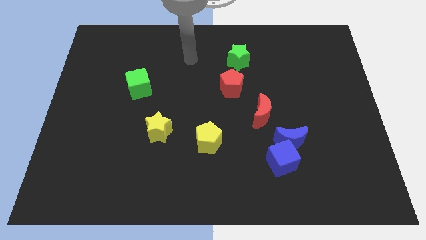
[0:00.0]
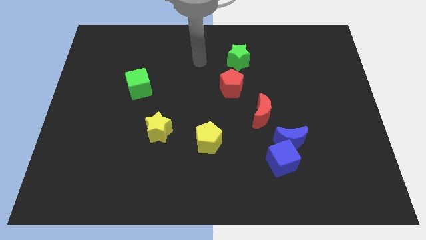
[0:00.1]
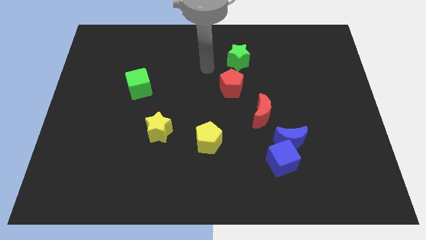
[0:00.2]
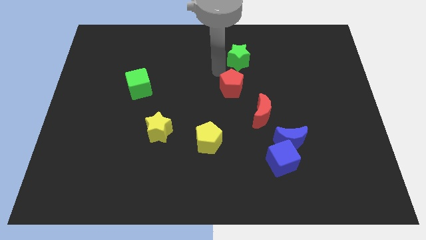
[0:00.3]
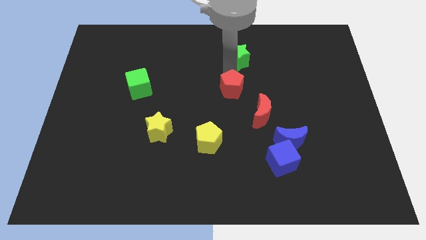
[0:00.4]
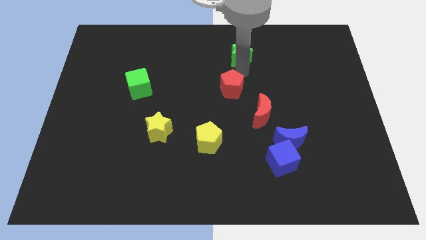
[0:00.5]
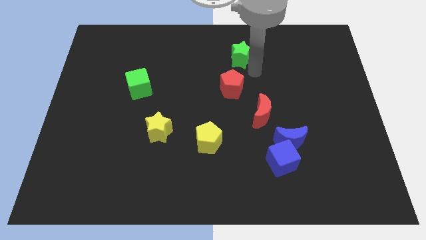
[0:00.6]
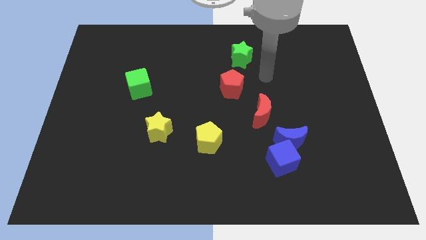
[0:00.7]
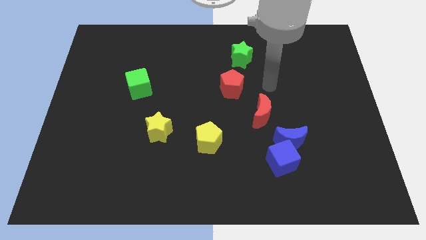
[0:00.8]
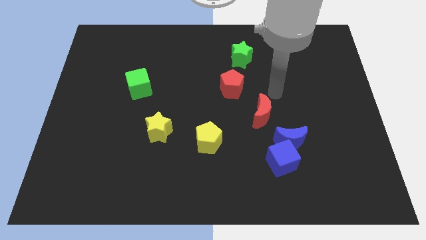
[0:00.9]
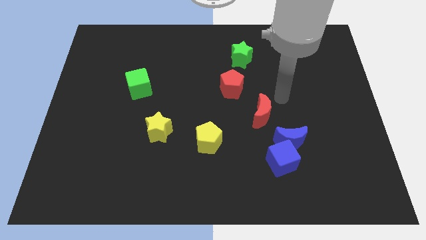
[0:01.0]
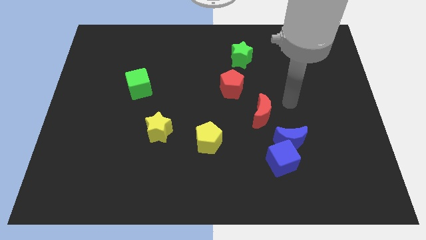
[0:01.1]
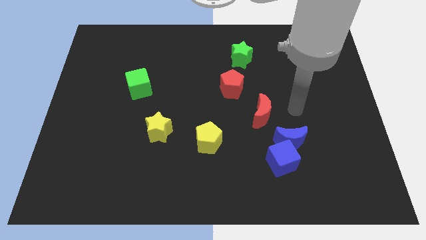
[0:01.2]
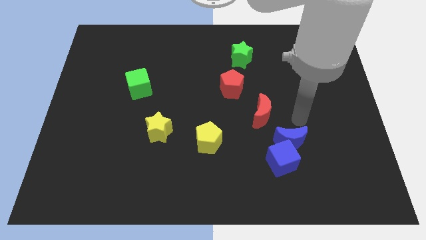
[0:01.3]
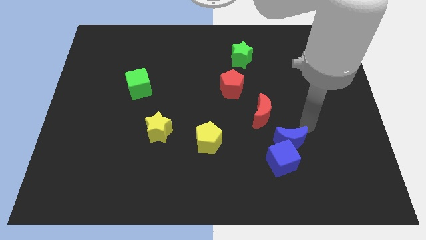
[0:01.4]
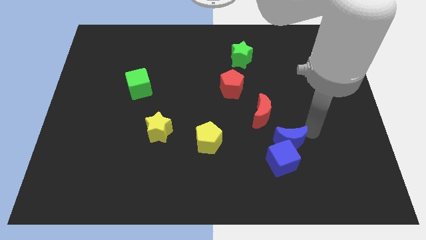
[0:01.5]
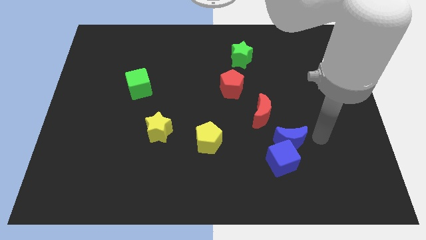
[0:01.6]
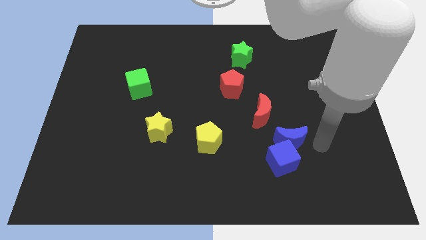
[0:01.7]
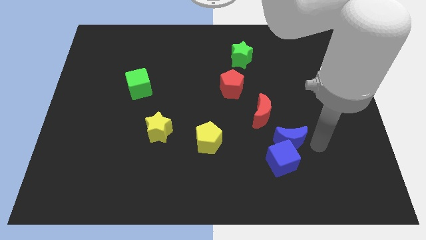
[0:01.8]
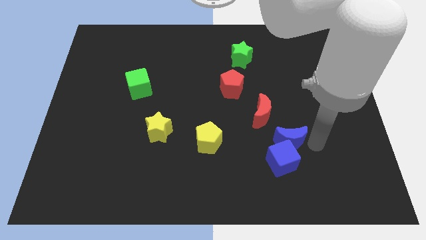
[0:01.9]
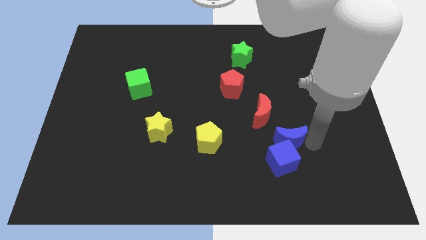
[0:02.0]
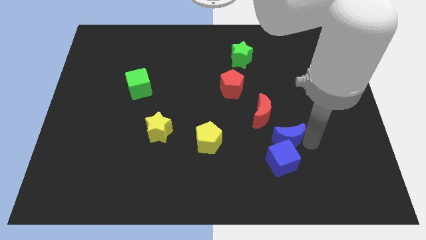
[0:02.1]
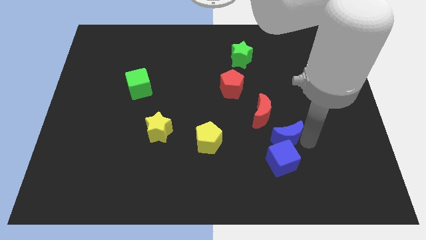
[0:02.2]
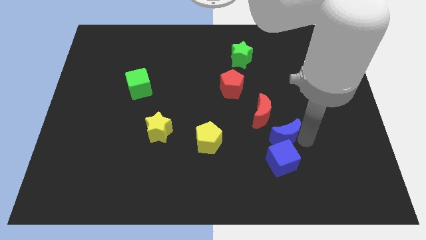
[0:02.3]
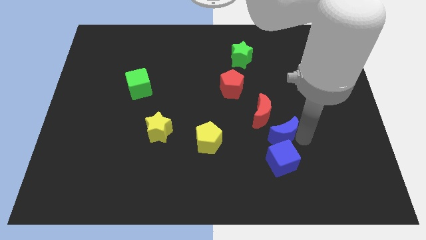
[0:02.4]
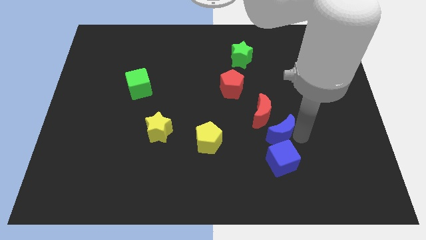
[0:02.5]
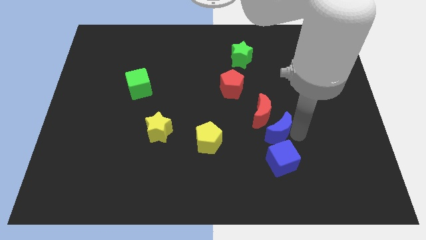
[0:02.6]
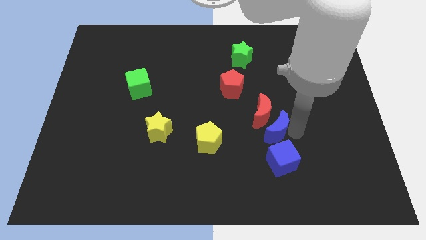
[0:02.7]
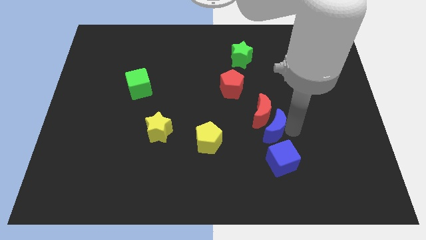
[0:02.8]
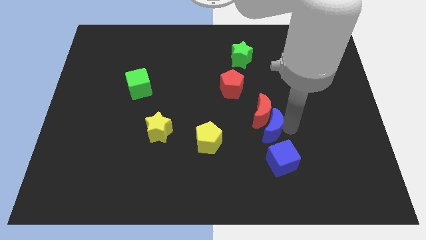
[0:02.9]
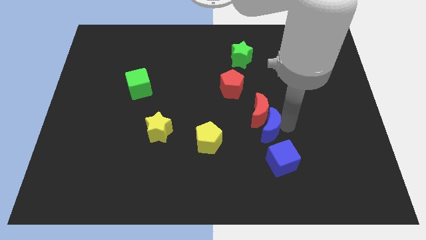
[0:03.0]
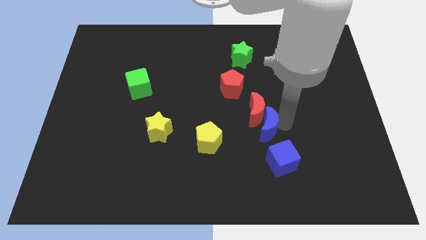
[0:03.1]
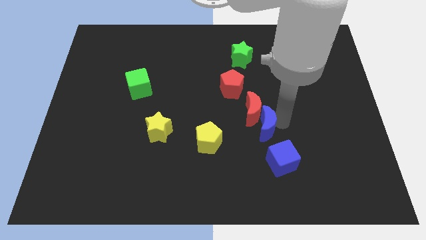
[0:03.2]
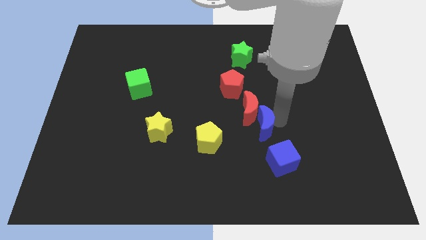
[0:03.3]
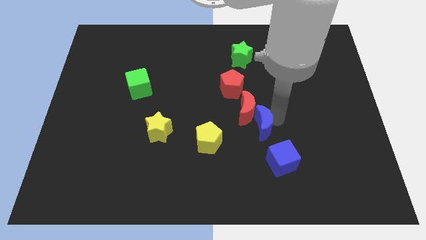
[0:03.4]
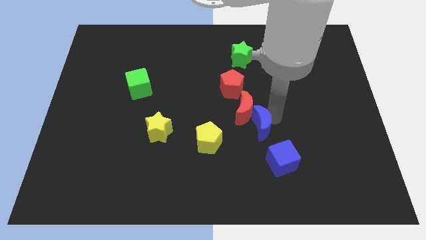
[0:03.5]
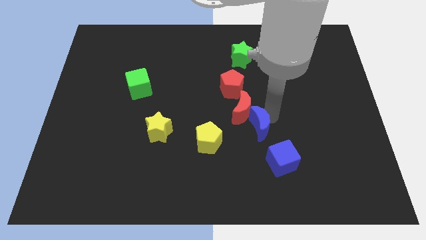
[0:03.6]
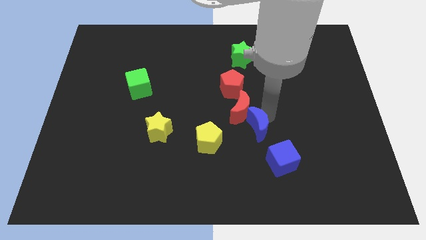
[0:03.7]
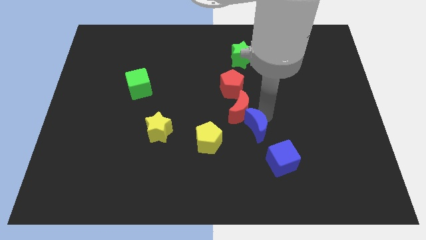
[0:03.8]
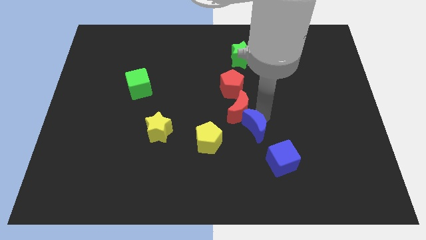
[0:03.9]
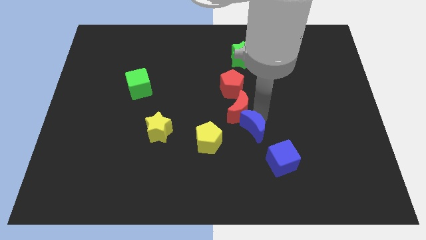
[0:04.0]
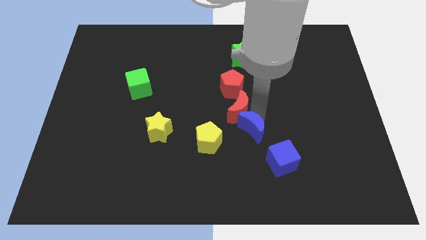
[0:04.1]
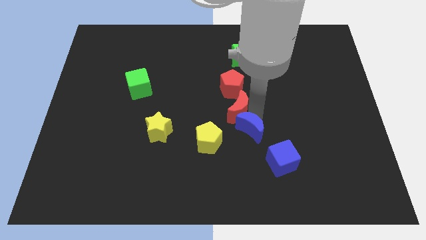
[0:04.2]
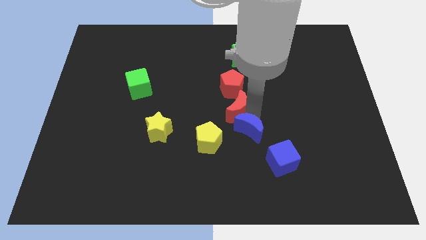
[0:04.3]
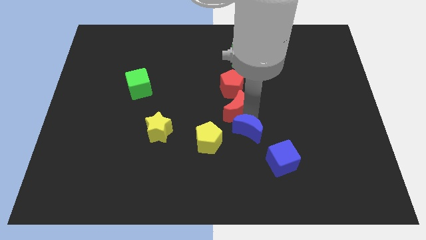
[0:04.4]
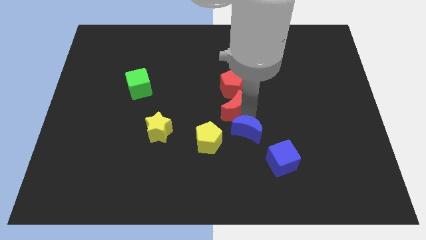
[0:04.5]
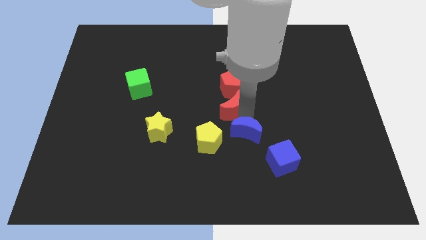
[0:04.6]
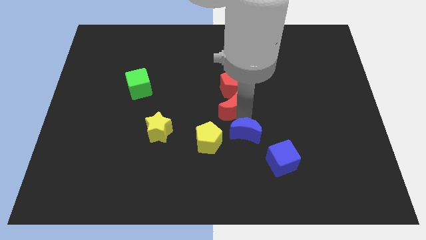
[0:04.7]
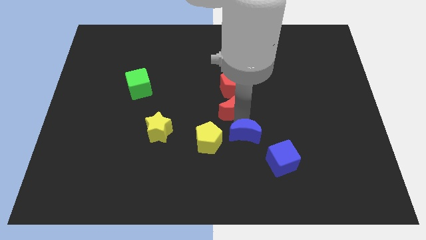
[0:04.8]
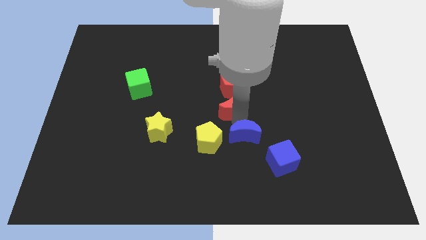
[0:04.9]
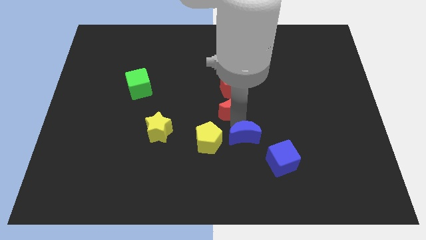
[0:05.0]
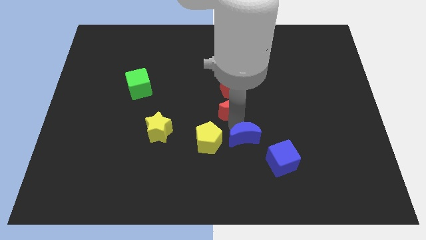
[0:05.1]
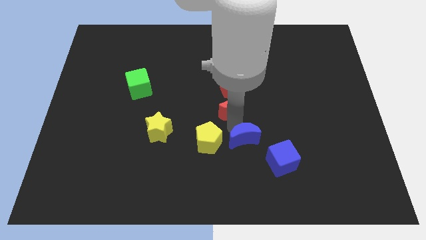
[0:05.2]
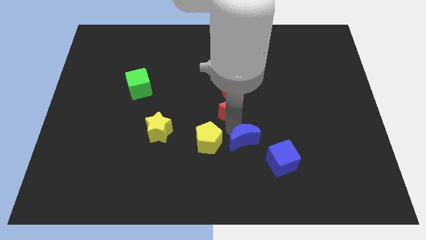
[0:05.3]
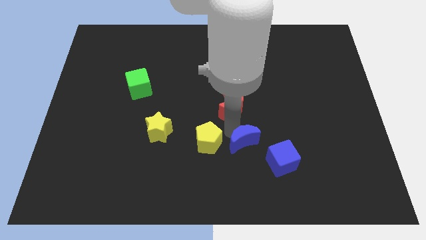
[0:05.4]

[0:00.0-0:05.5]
slide the blue moon left of the blue cube

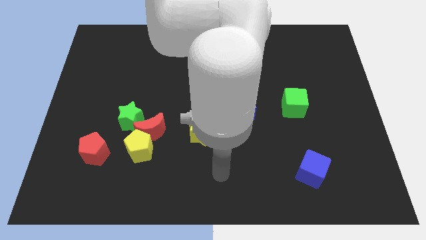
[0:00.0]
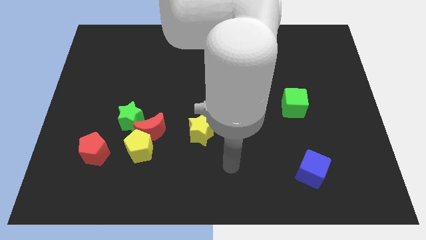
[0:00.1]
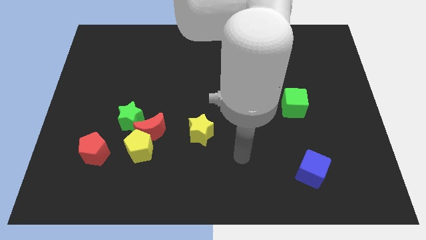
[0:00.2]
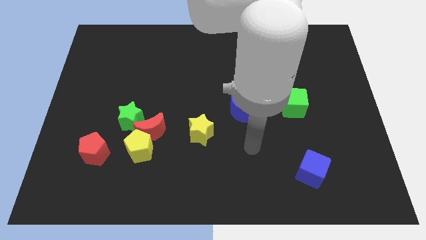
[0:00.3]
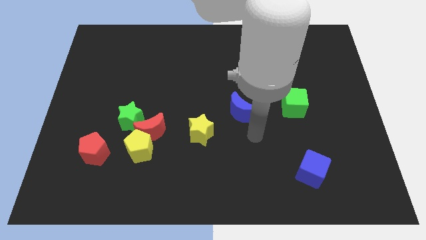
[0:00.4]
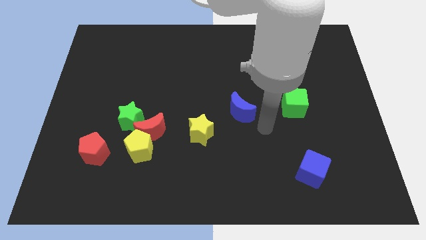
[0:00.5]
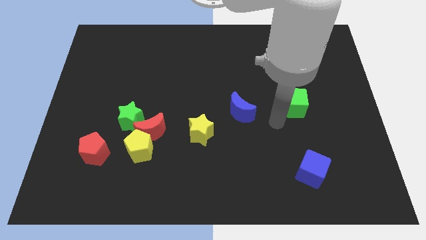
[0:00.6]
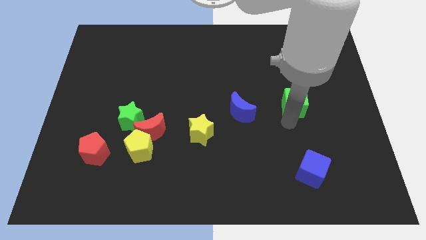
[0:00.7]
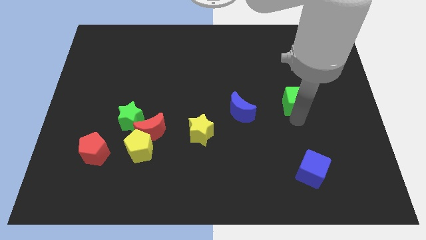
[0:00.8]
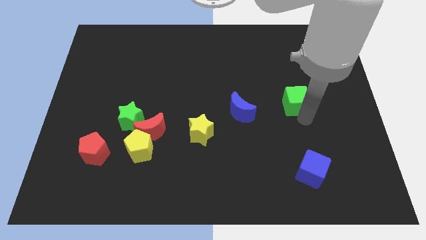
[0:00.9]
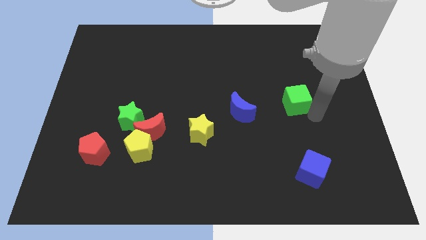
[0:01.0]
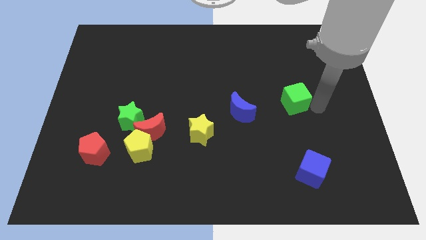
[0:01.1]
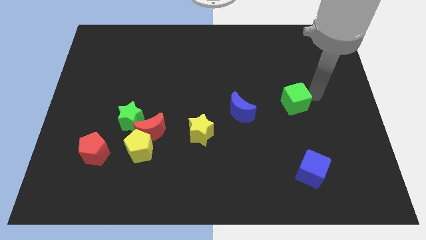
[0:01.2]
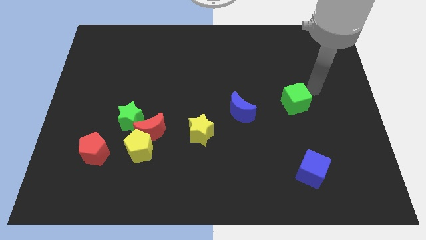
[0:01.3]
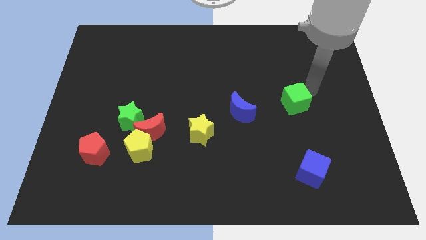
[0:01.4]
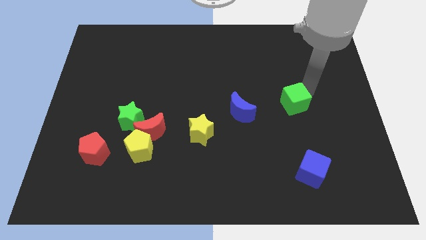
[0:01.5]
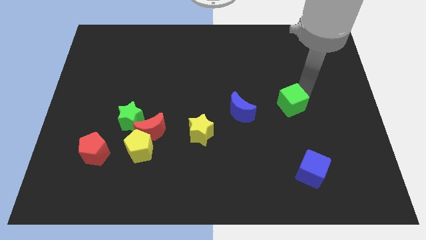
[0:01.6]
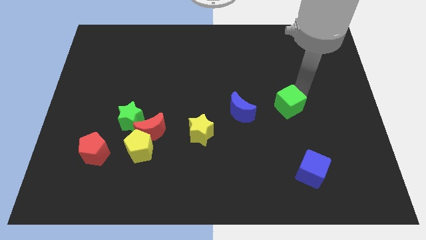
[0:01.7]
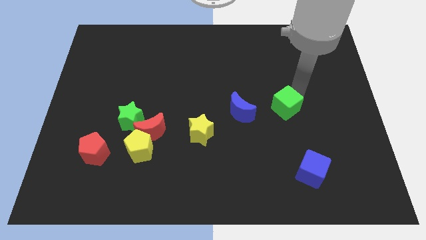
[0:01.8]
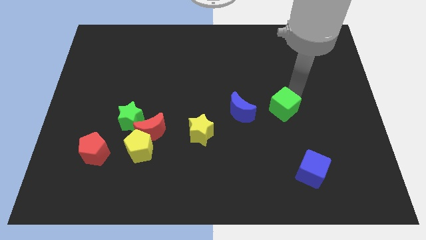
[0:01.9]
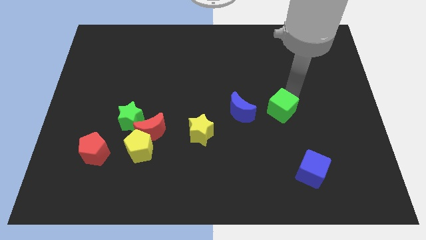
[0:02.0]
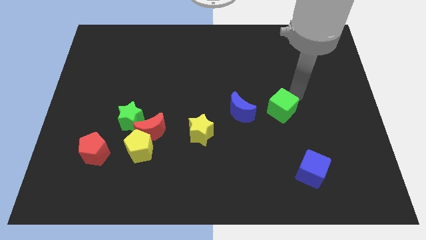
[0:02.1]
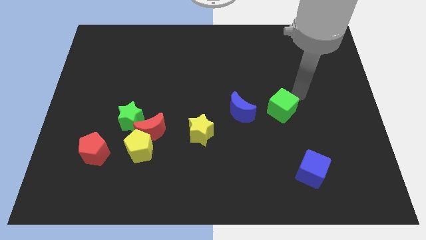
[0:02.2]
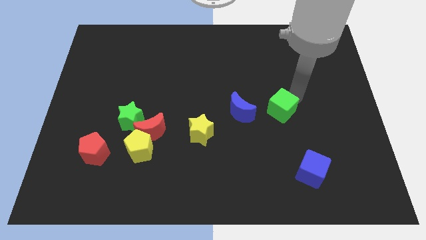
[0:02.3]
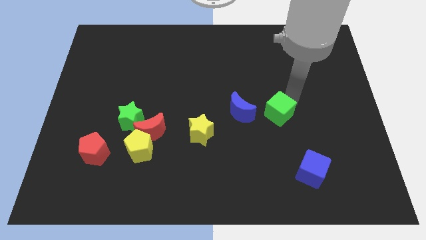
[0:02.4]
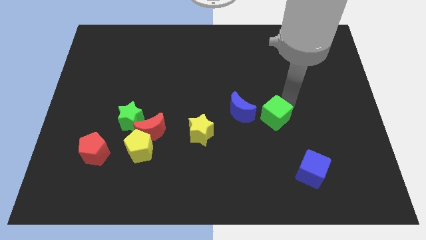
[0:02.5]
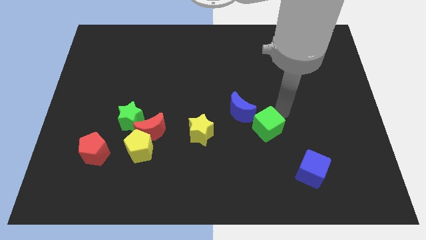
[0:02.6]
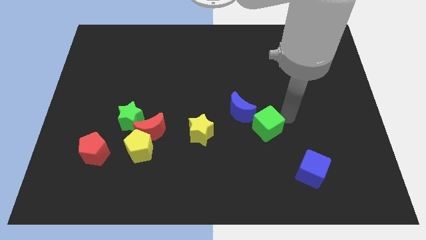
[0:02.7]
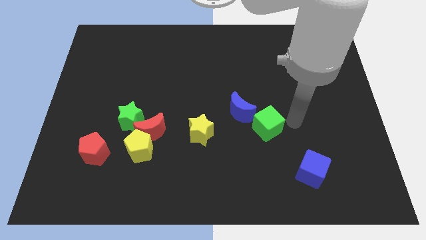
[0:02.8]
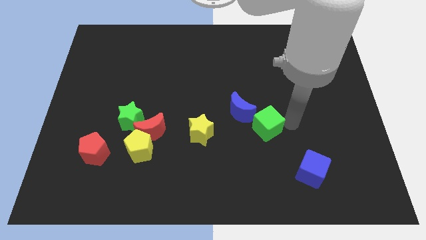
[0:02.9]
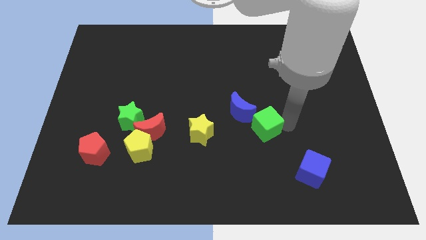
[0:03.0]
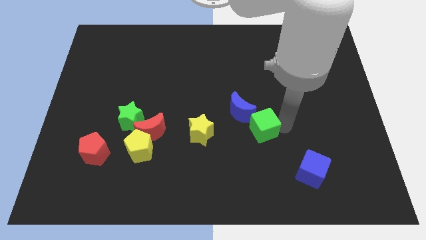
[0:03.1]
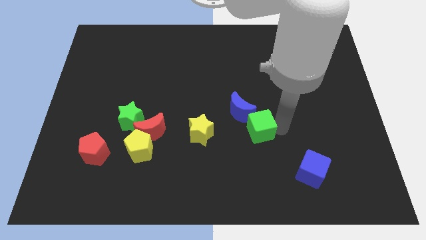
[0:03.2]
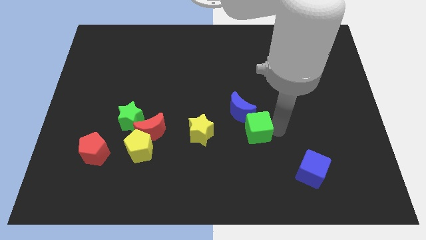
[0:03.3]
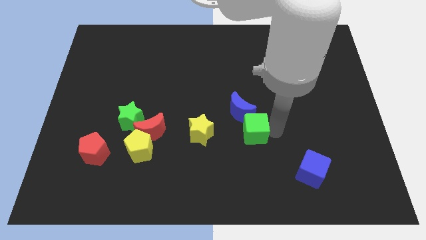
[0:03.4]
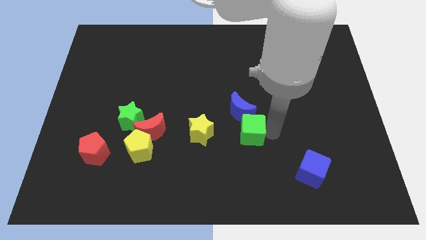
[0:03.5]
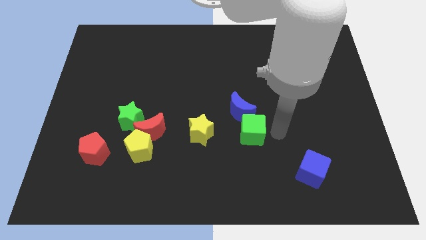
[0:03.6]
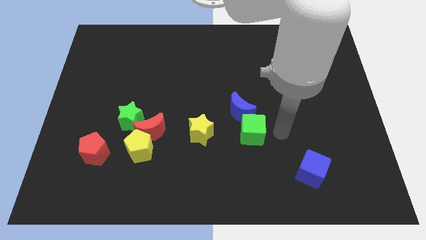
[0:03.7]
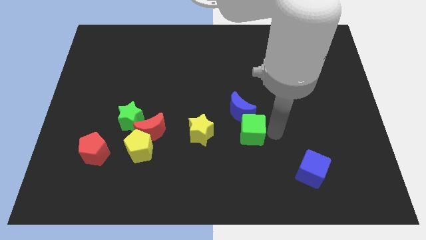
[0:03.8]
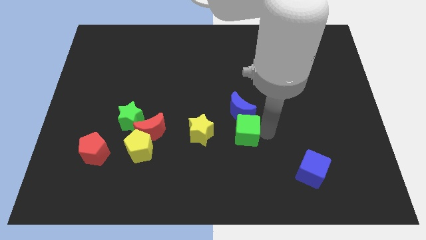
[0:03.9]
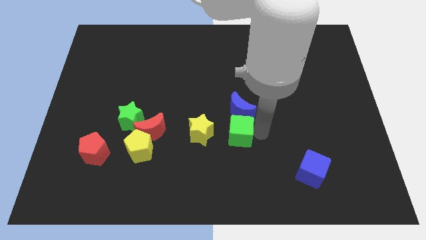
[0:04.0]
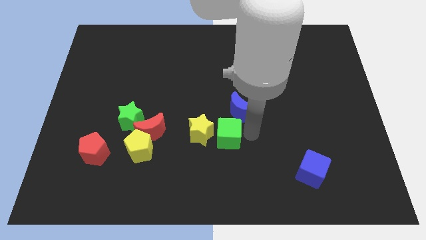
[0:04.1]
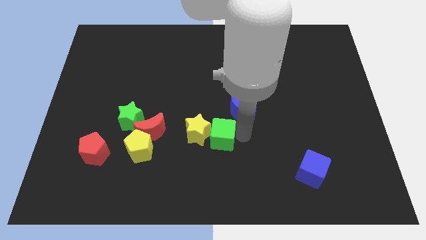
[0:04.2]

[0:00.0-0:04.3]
slide the green cube right of the red moon
